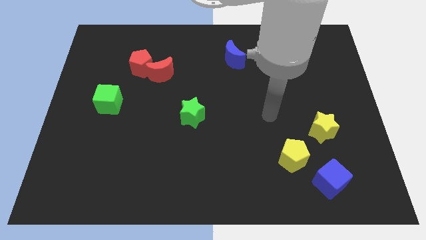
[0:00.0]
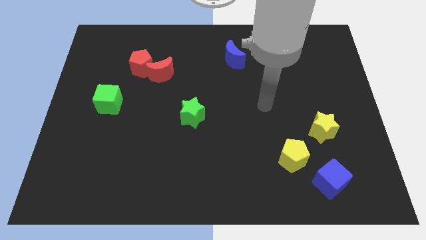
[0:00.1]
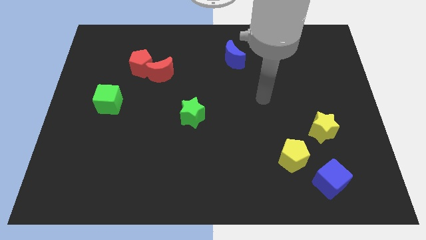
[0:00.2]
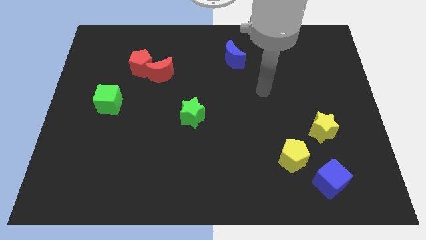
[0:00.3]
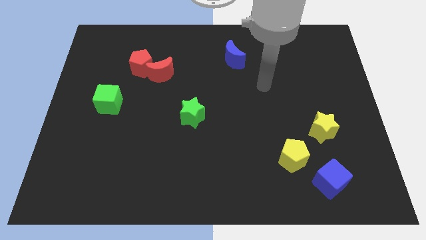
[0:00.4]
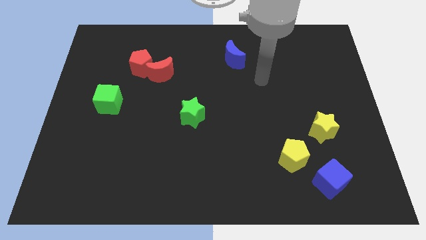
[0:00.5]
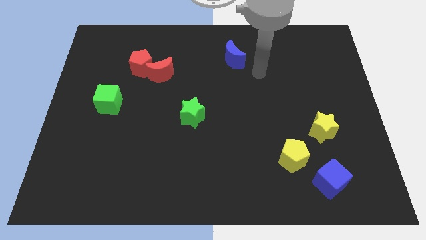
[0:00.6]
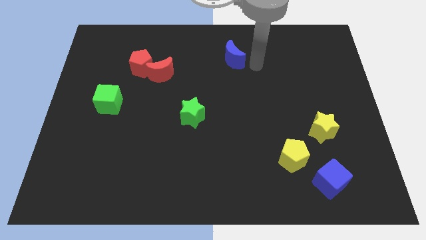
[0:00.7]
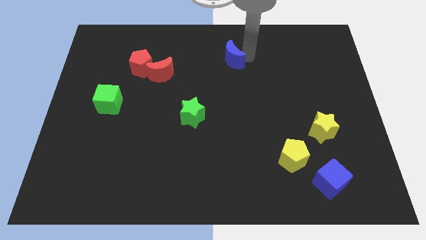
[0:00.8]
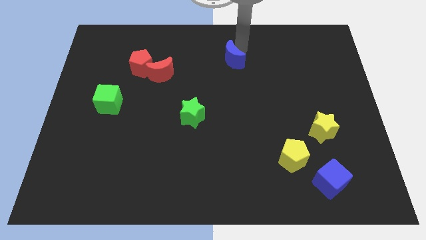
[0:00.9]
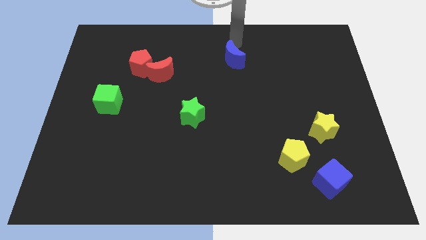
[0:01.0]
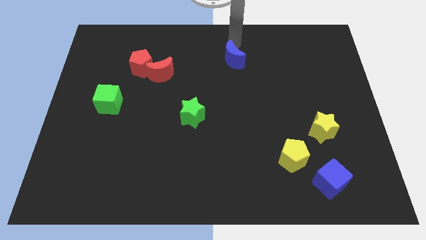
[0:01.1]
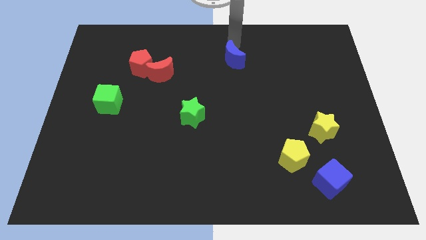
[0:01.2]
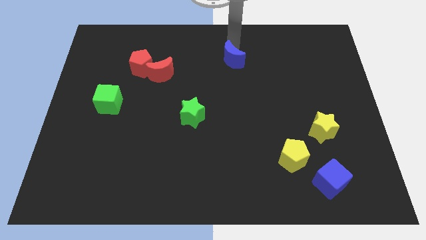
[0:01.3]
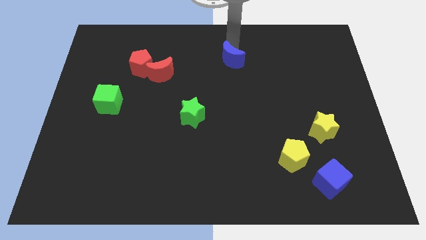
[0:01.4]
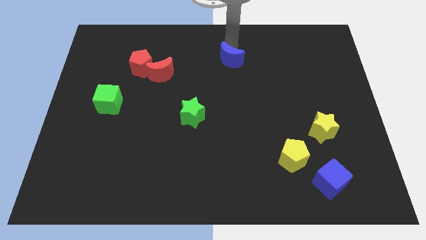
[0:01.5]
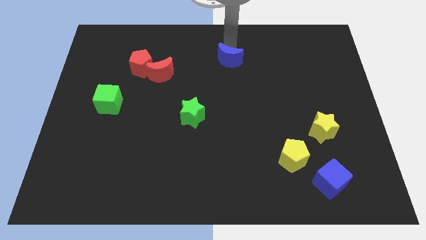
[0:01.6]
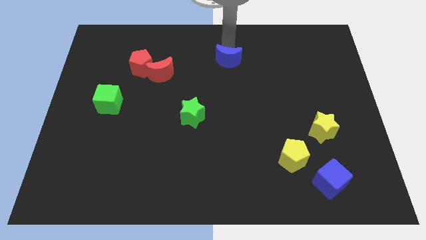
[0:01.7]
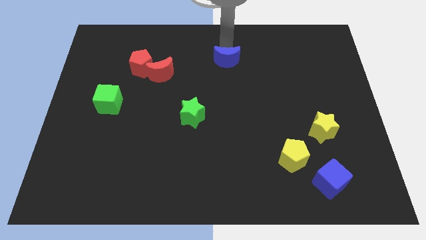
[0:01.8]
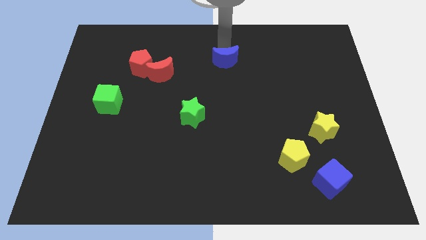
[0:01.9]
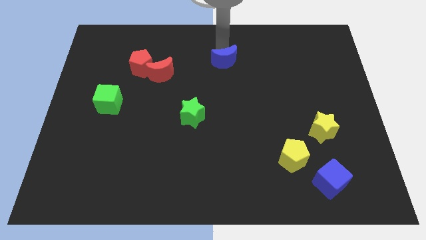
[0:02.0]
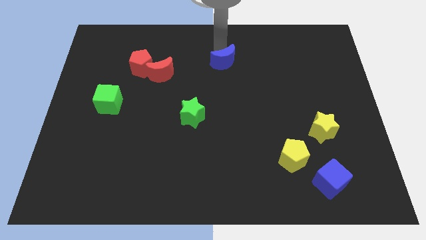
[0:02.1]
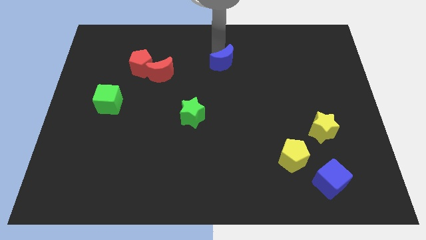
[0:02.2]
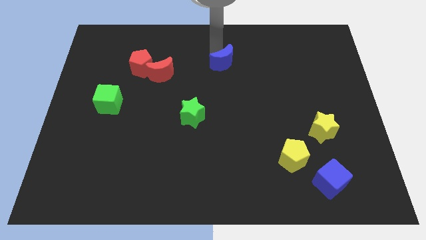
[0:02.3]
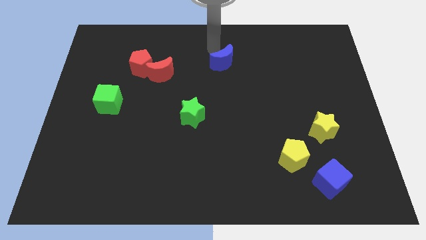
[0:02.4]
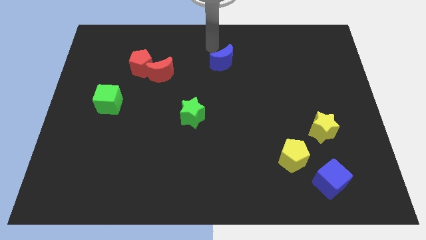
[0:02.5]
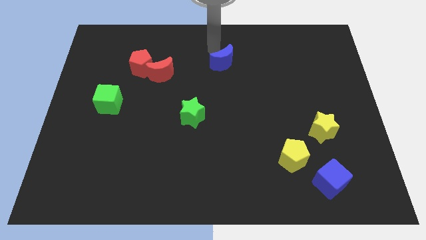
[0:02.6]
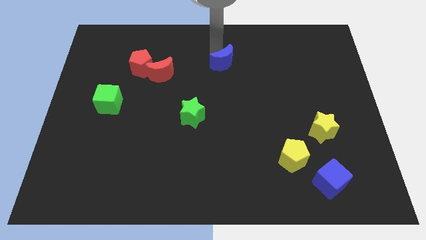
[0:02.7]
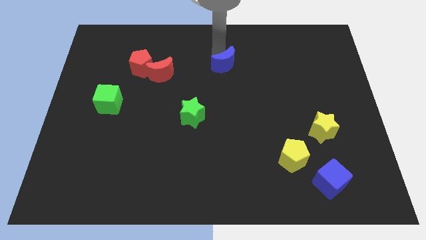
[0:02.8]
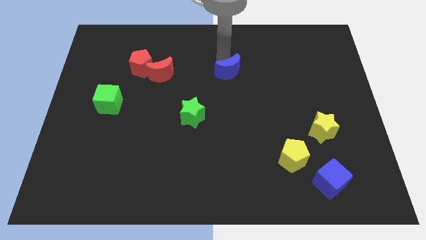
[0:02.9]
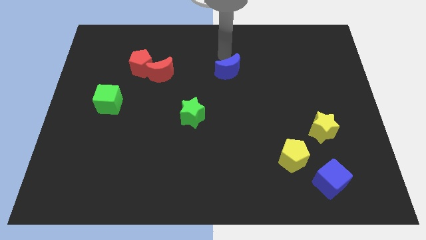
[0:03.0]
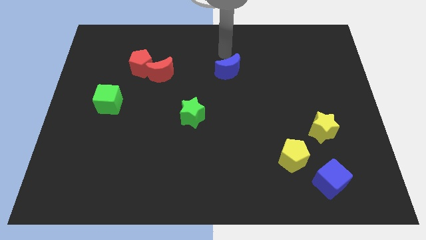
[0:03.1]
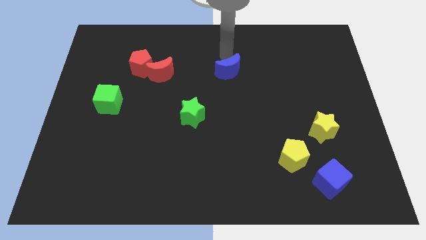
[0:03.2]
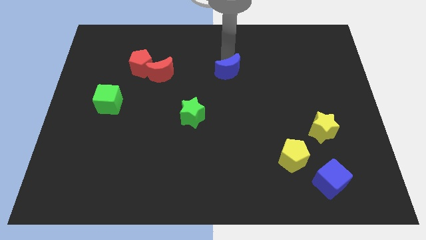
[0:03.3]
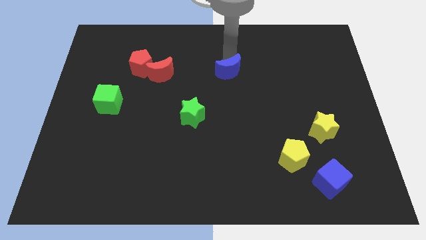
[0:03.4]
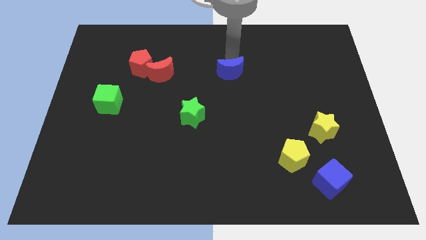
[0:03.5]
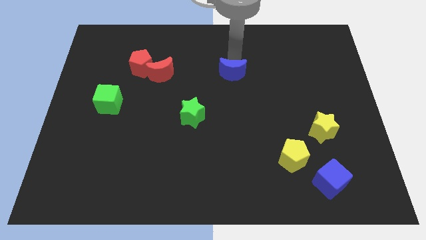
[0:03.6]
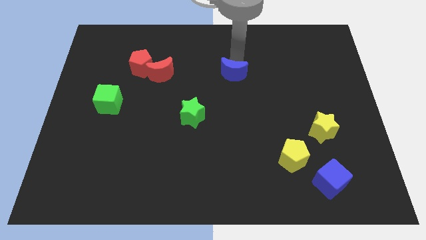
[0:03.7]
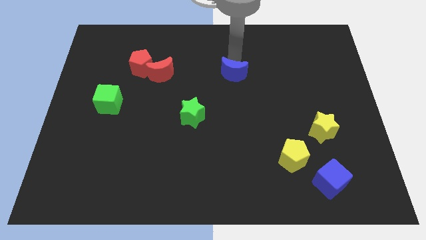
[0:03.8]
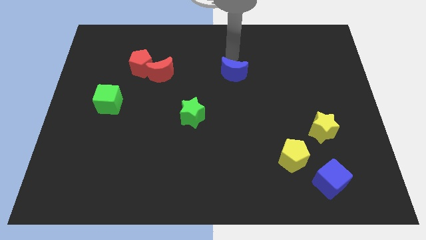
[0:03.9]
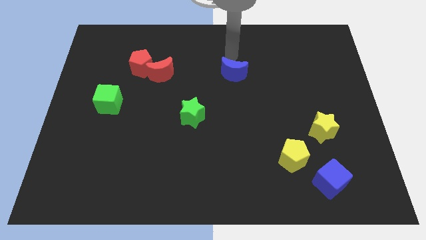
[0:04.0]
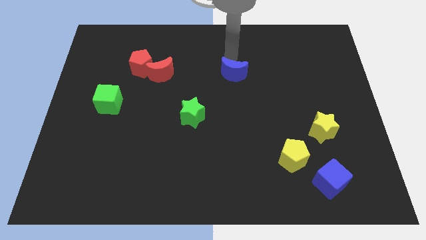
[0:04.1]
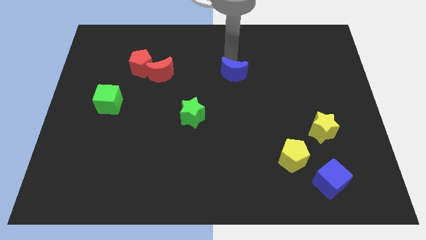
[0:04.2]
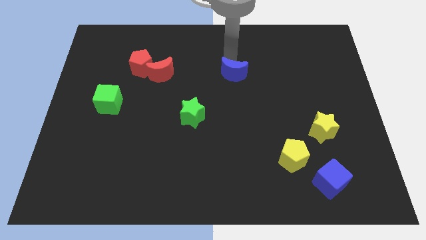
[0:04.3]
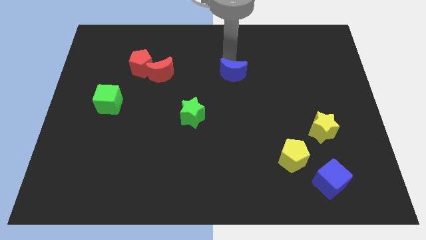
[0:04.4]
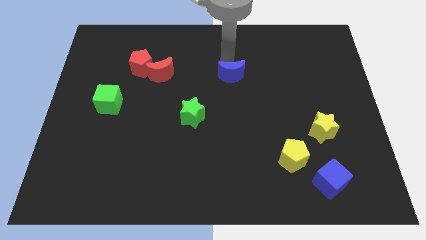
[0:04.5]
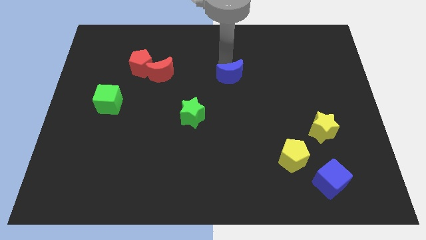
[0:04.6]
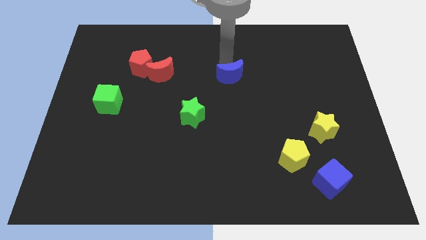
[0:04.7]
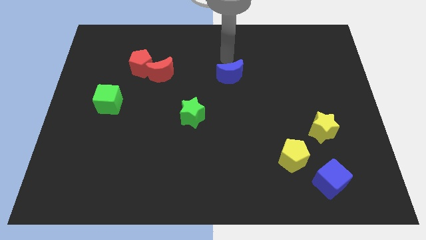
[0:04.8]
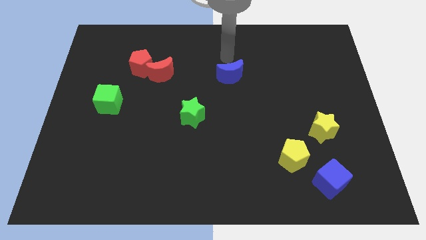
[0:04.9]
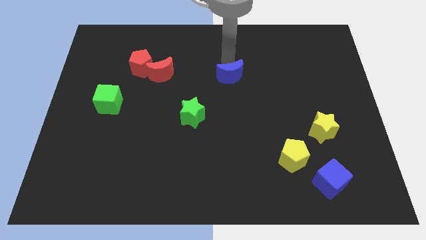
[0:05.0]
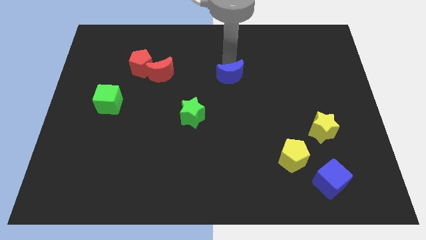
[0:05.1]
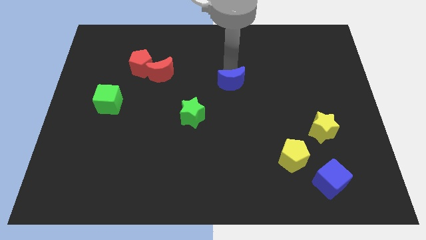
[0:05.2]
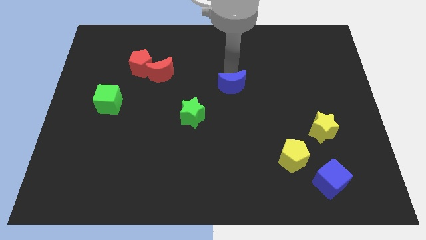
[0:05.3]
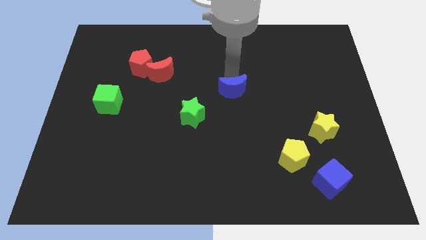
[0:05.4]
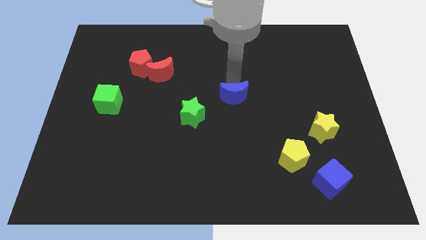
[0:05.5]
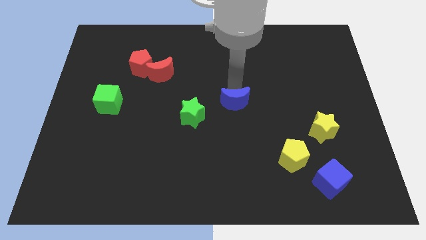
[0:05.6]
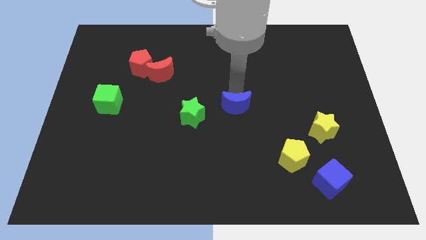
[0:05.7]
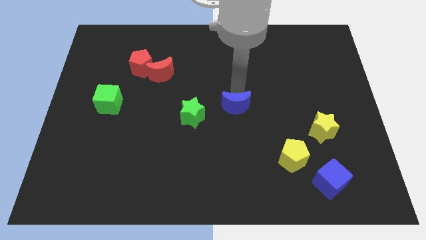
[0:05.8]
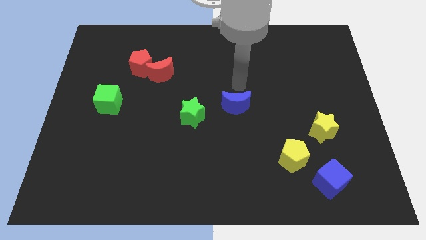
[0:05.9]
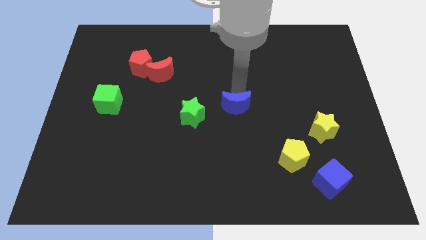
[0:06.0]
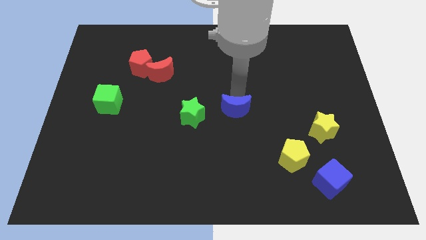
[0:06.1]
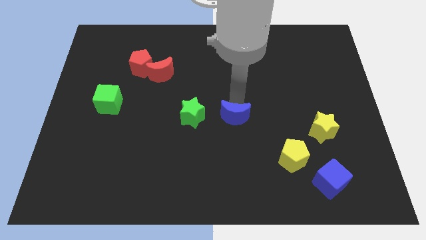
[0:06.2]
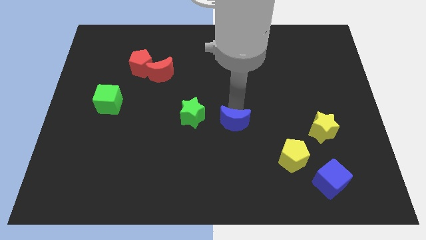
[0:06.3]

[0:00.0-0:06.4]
move the blue moon down

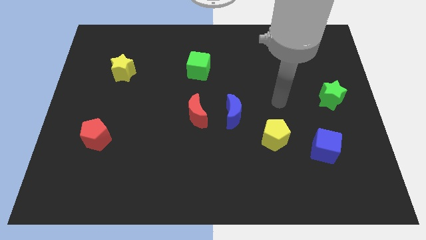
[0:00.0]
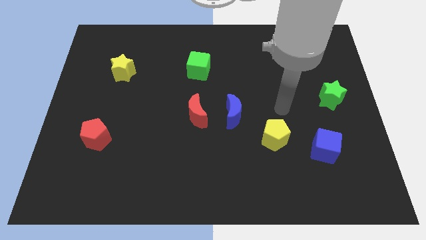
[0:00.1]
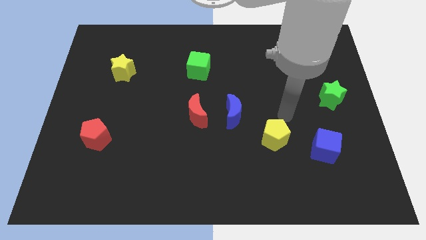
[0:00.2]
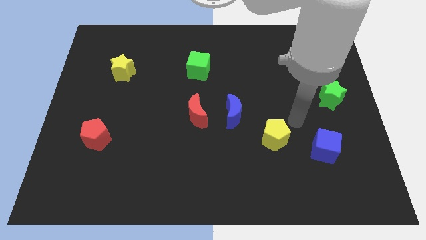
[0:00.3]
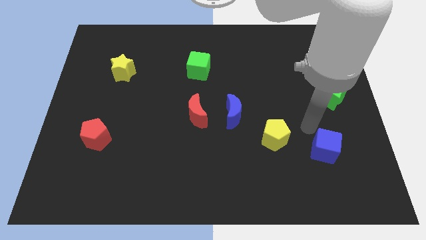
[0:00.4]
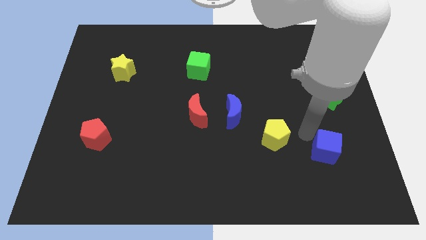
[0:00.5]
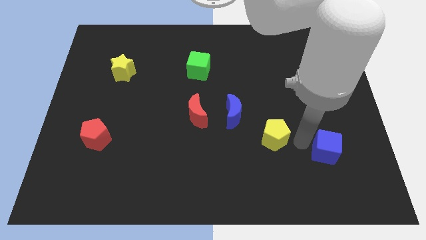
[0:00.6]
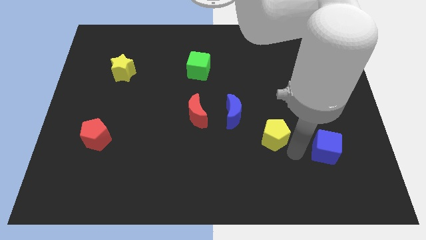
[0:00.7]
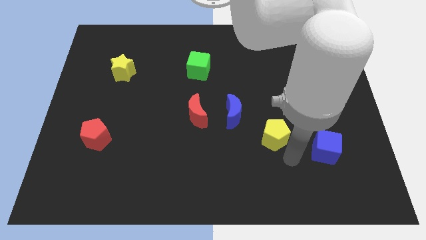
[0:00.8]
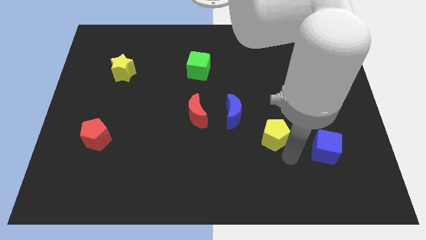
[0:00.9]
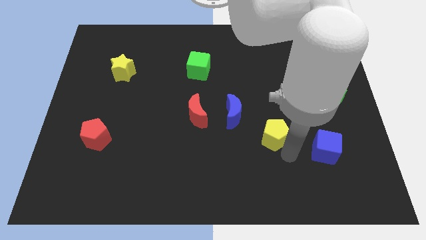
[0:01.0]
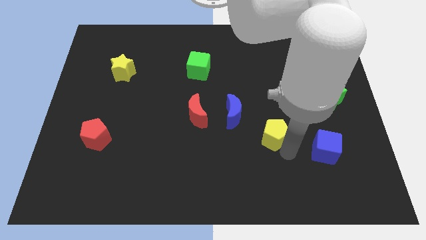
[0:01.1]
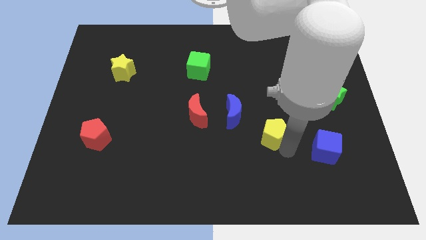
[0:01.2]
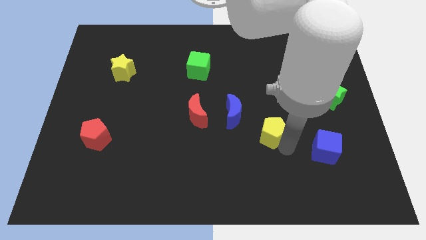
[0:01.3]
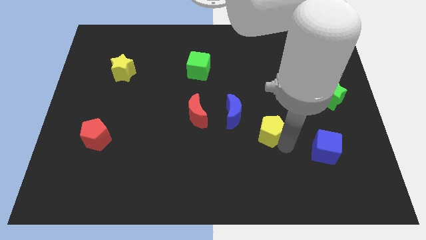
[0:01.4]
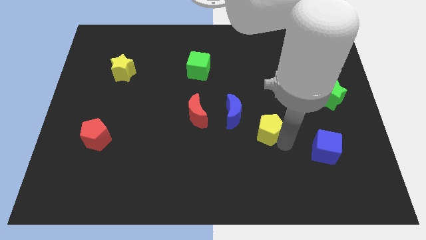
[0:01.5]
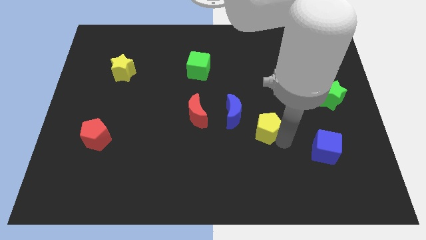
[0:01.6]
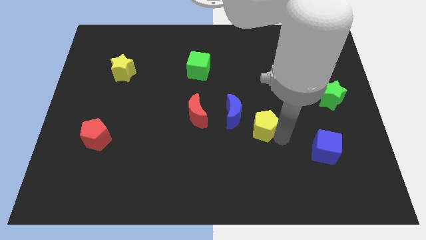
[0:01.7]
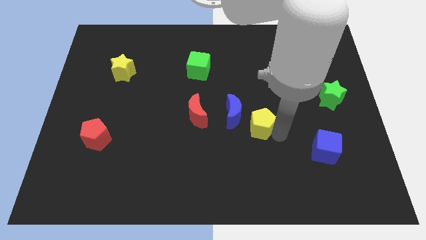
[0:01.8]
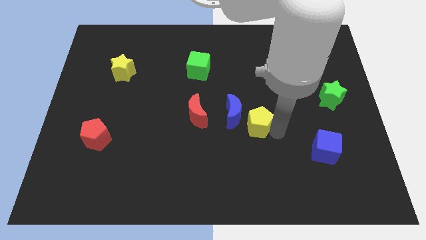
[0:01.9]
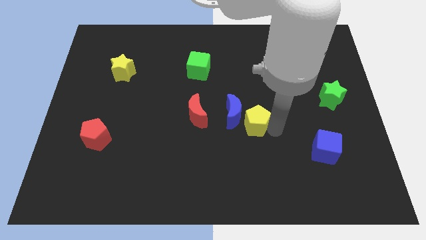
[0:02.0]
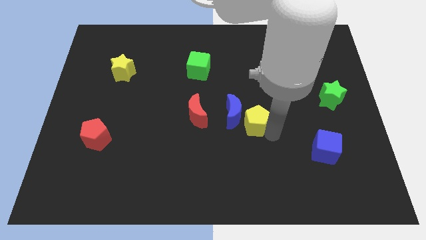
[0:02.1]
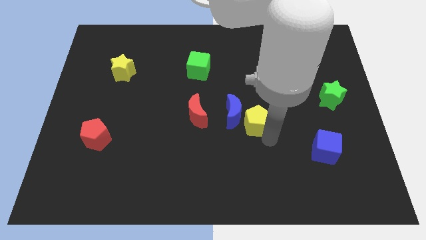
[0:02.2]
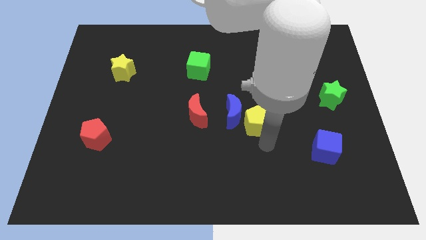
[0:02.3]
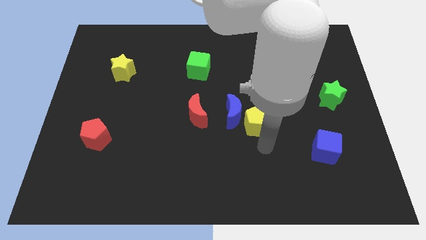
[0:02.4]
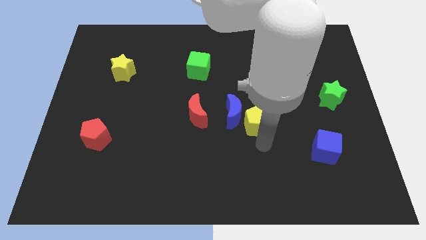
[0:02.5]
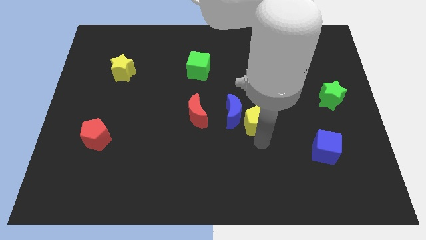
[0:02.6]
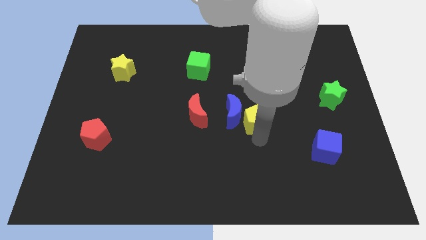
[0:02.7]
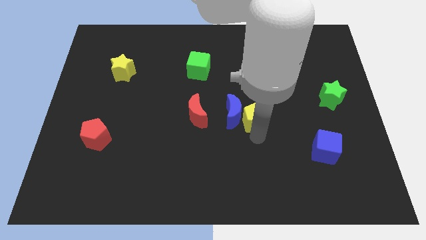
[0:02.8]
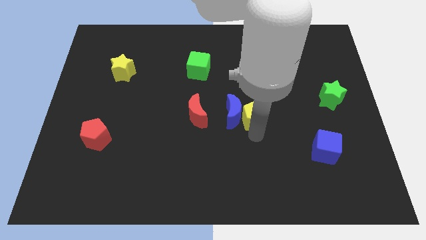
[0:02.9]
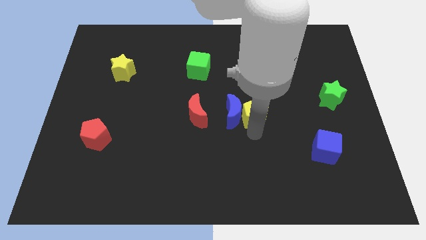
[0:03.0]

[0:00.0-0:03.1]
slightly slide the yellow pentagon up and then to the left
